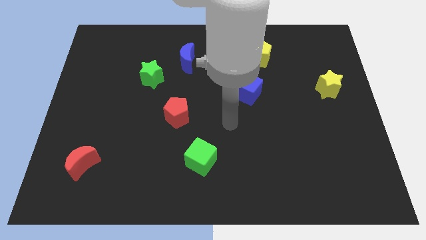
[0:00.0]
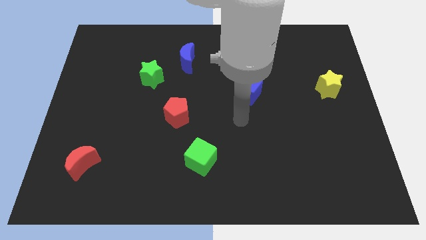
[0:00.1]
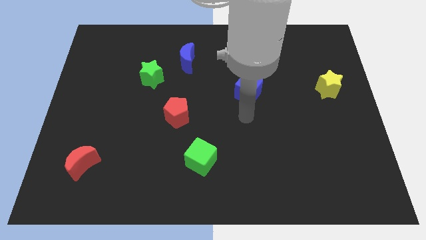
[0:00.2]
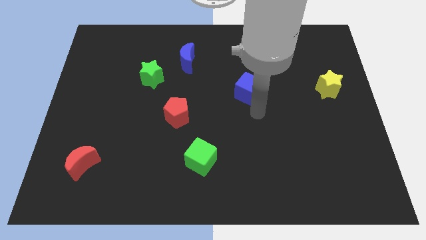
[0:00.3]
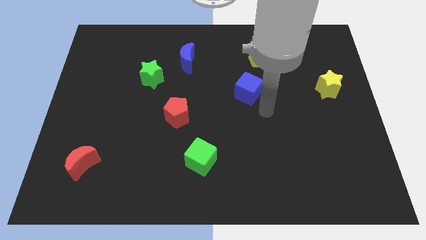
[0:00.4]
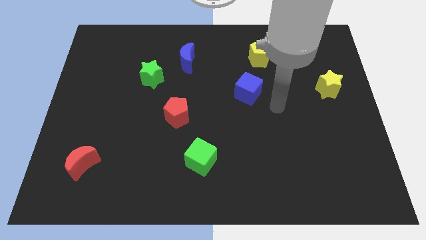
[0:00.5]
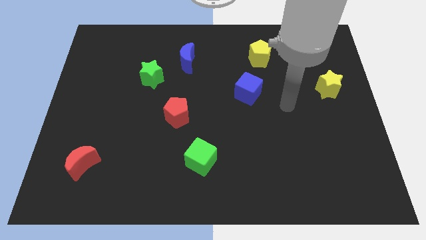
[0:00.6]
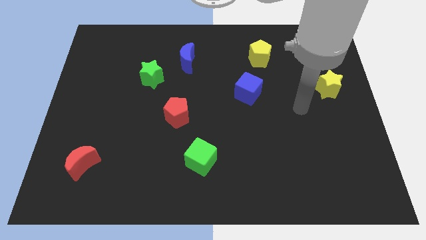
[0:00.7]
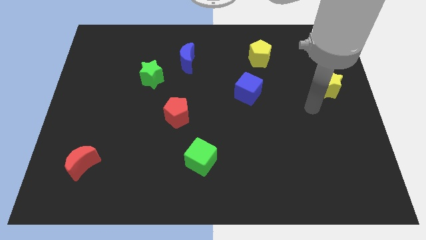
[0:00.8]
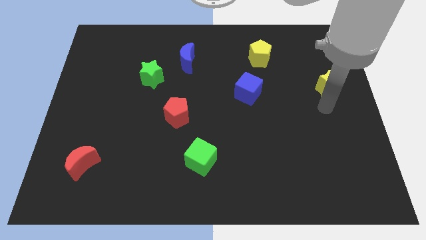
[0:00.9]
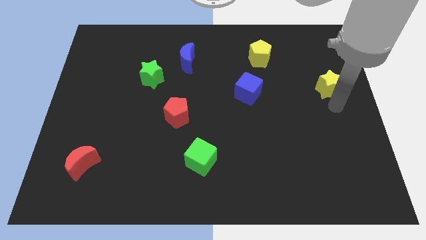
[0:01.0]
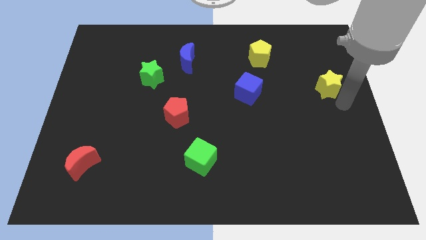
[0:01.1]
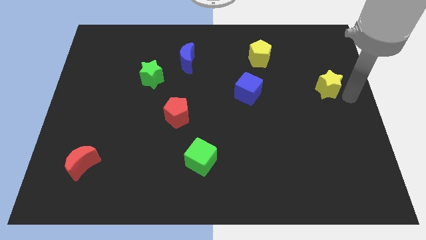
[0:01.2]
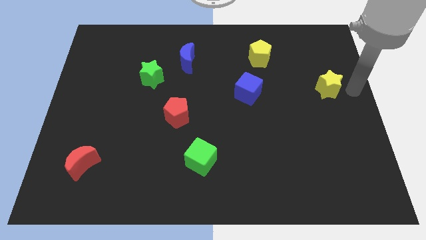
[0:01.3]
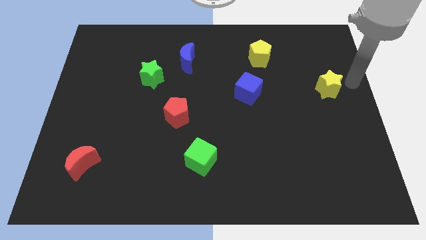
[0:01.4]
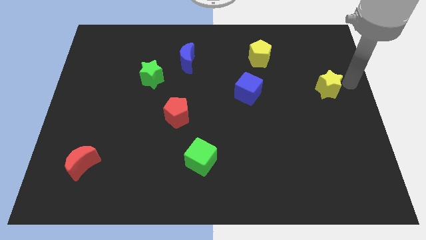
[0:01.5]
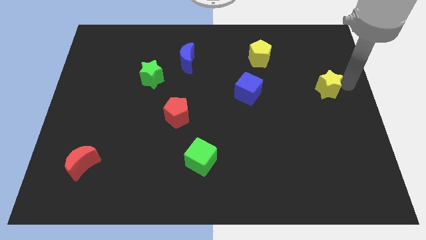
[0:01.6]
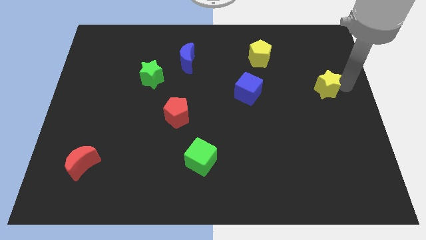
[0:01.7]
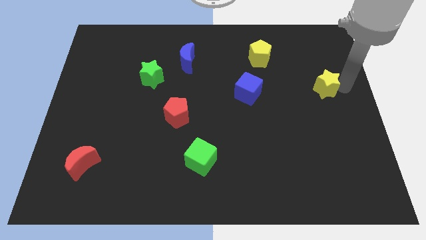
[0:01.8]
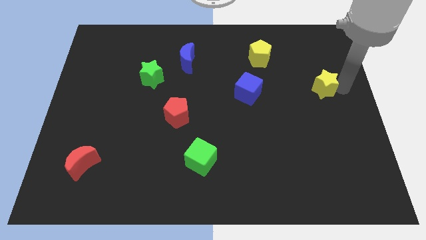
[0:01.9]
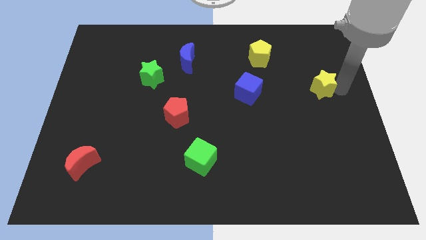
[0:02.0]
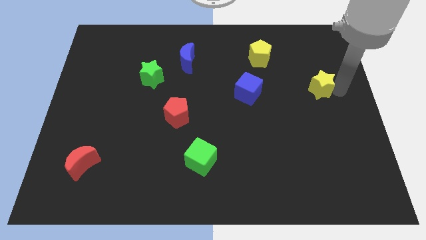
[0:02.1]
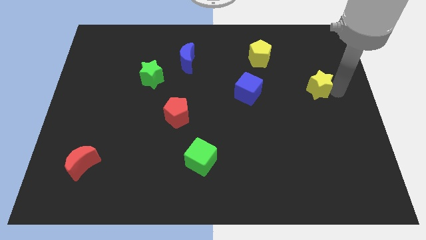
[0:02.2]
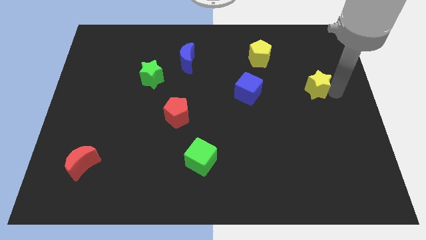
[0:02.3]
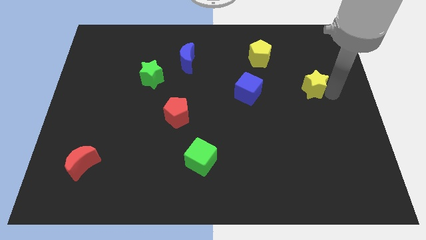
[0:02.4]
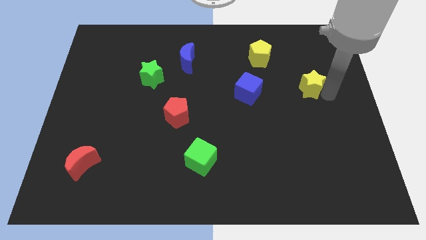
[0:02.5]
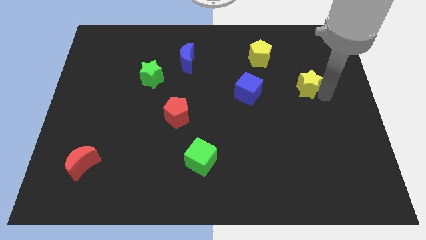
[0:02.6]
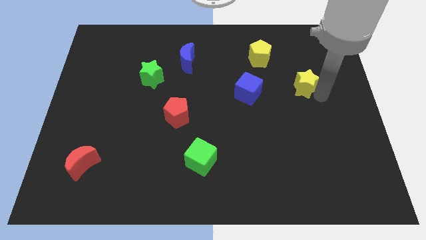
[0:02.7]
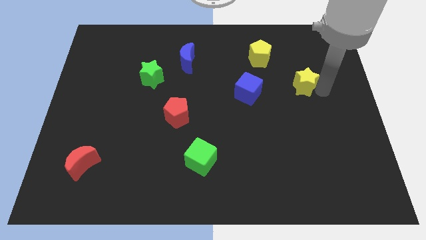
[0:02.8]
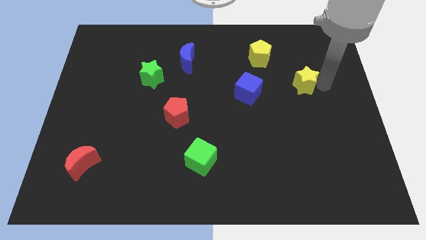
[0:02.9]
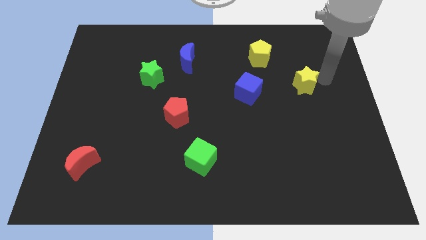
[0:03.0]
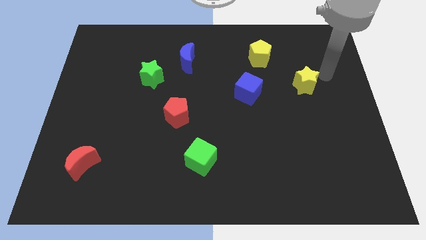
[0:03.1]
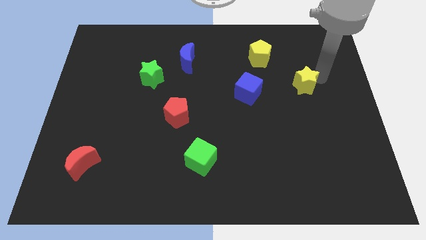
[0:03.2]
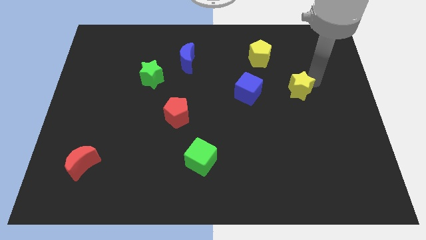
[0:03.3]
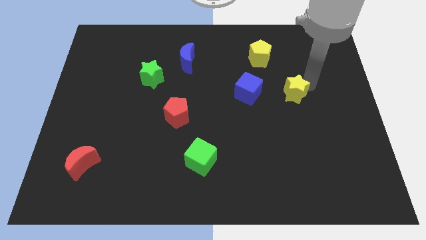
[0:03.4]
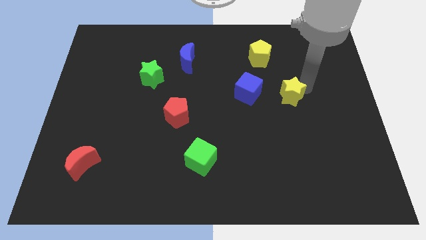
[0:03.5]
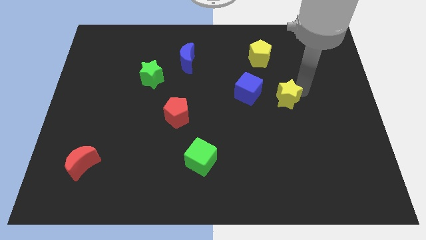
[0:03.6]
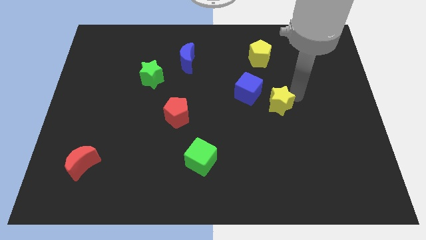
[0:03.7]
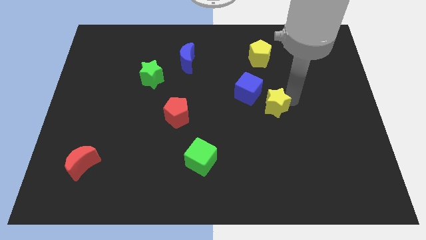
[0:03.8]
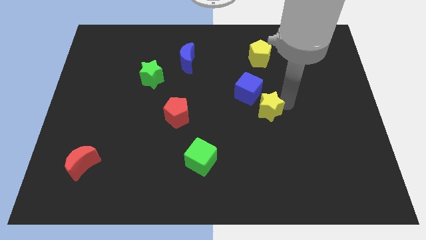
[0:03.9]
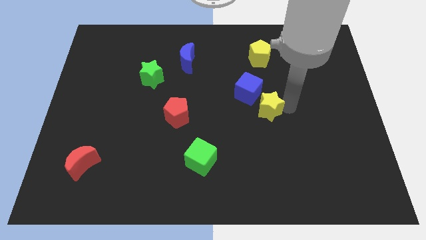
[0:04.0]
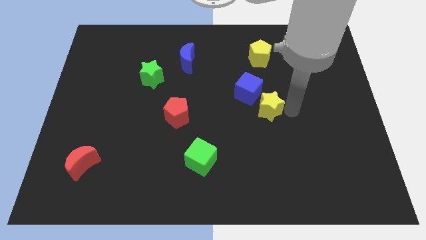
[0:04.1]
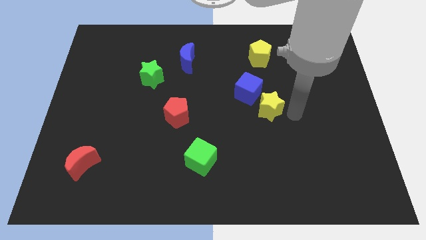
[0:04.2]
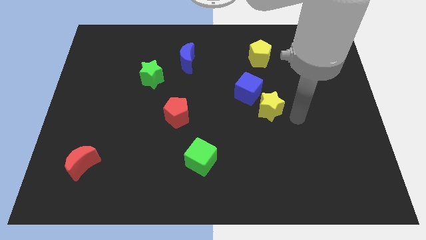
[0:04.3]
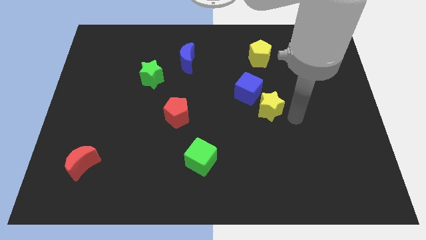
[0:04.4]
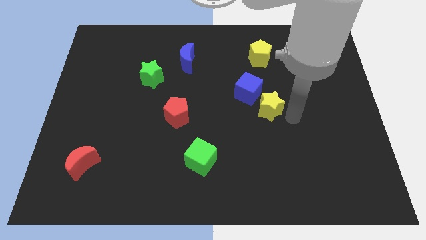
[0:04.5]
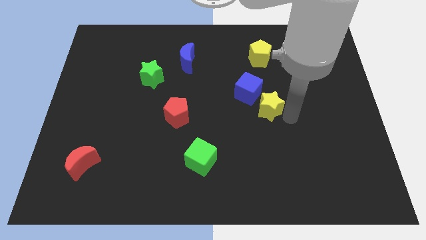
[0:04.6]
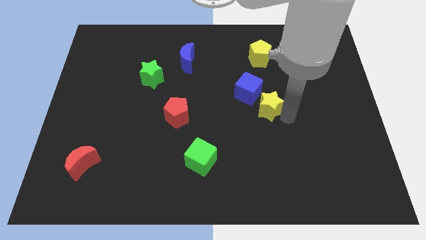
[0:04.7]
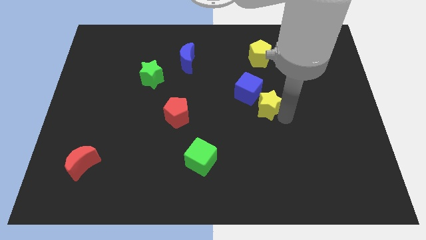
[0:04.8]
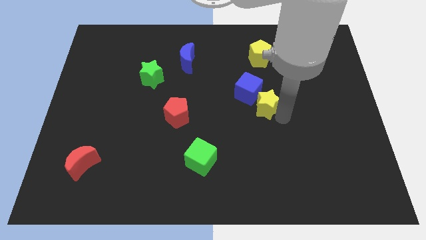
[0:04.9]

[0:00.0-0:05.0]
push the yellow star to the middle

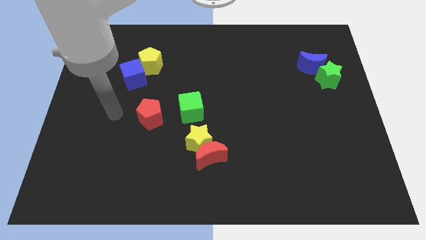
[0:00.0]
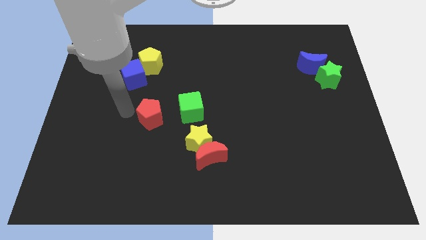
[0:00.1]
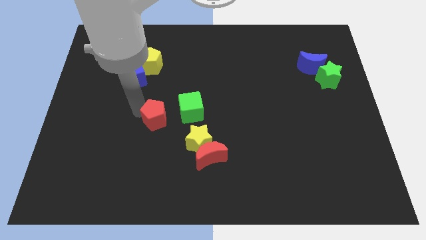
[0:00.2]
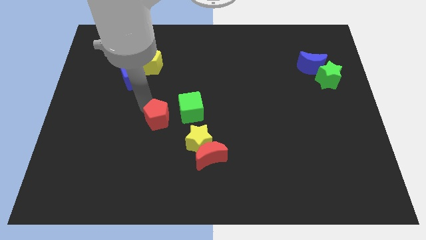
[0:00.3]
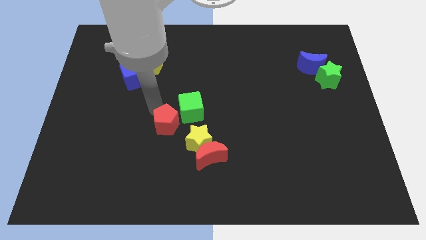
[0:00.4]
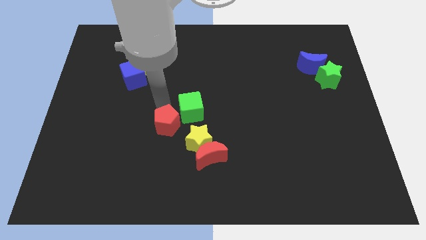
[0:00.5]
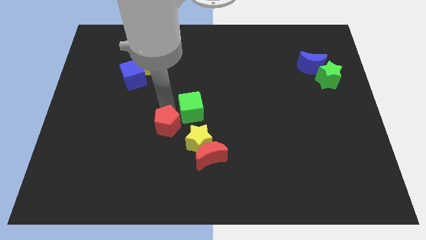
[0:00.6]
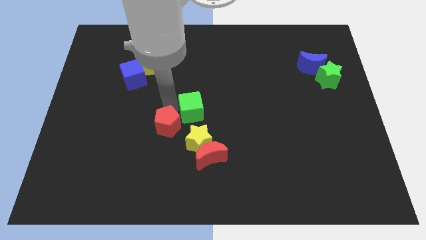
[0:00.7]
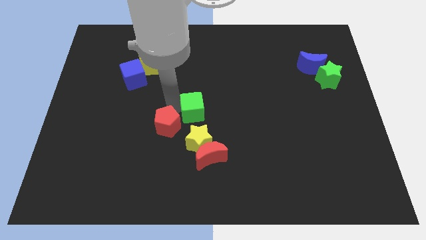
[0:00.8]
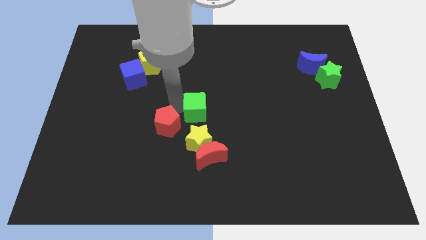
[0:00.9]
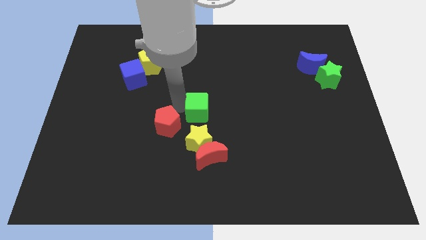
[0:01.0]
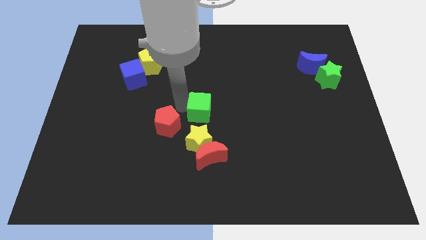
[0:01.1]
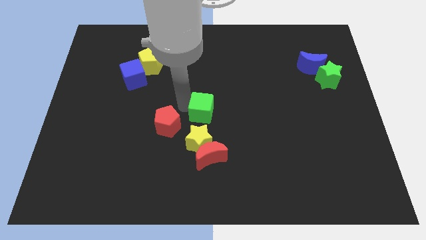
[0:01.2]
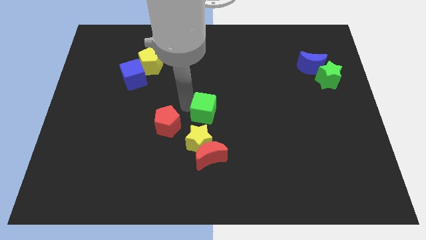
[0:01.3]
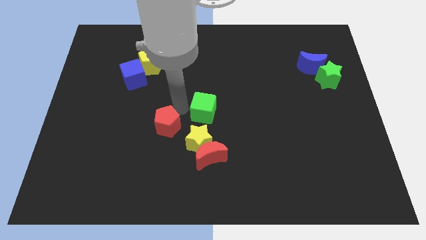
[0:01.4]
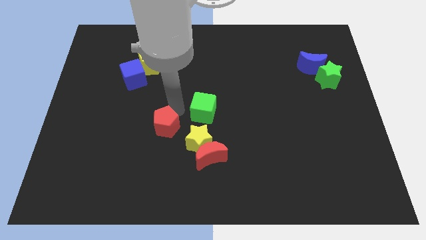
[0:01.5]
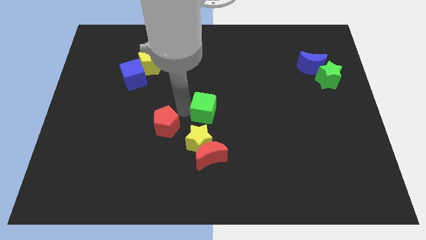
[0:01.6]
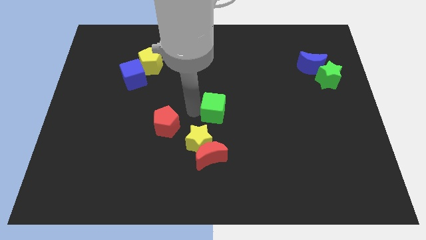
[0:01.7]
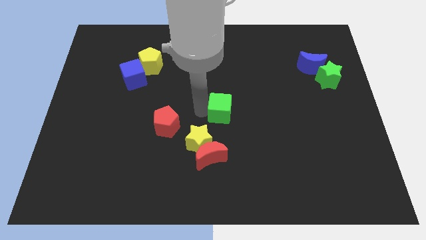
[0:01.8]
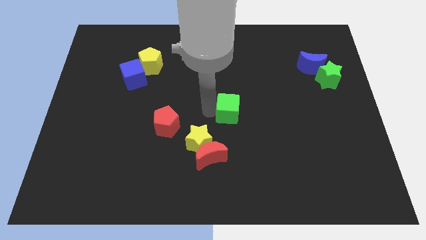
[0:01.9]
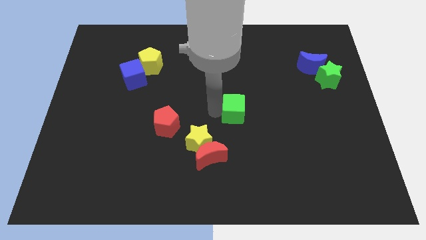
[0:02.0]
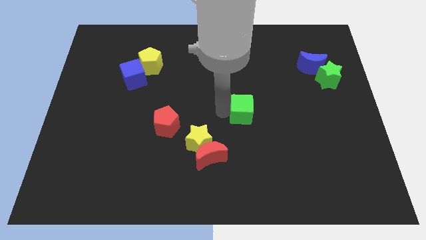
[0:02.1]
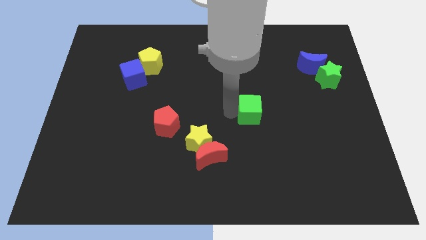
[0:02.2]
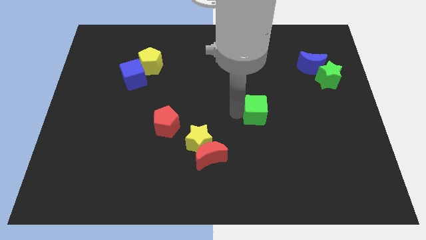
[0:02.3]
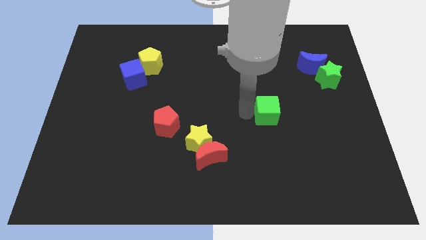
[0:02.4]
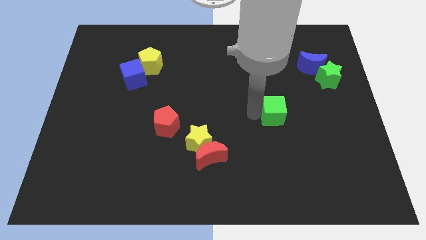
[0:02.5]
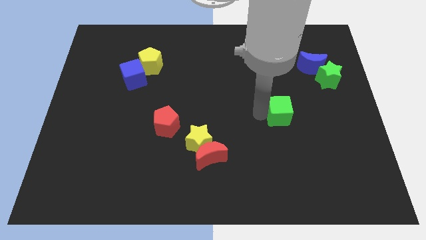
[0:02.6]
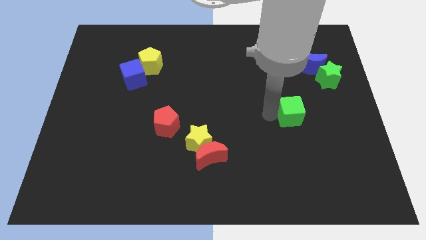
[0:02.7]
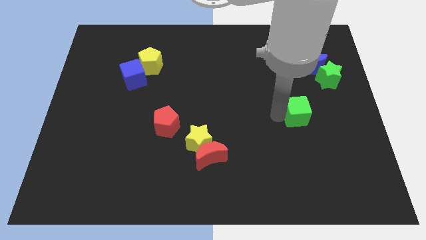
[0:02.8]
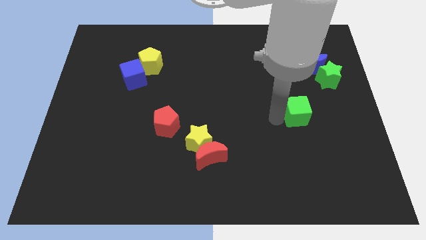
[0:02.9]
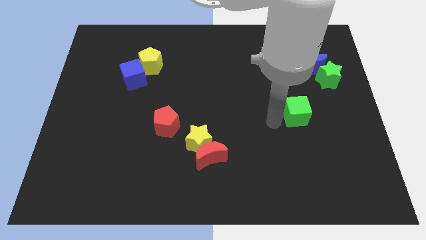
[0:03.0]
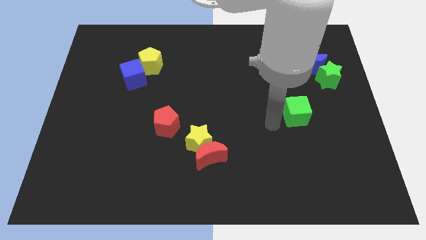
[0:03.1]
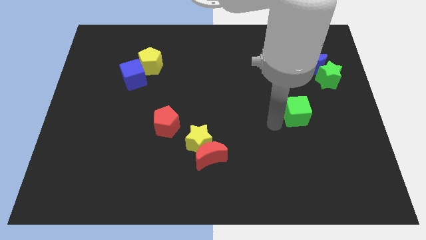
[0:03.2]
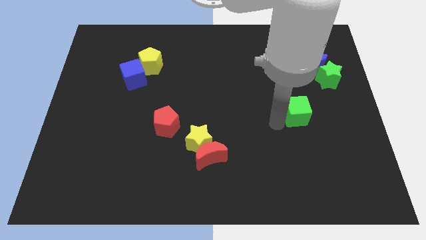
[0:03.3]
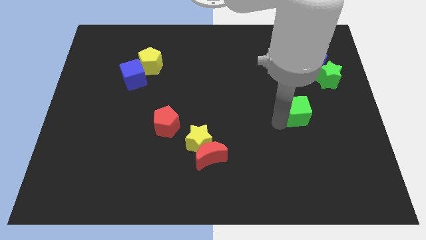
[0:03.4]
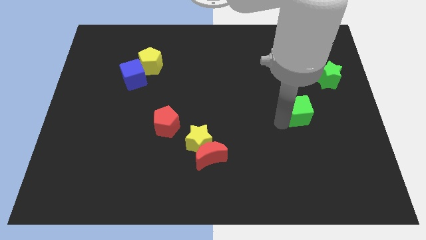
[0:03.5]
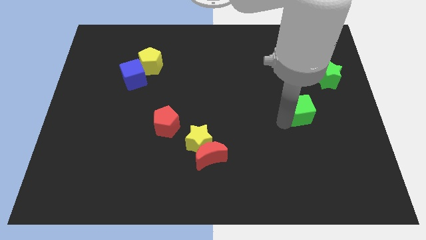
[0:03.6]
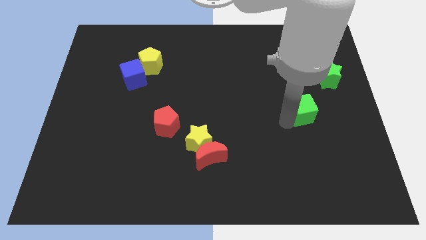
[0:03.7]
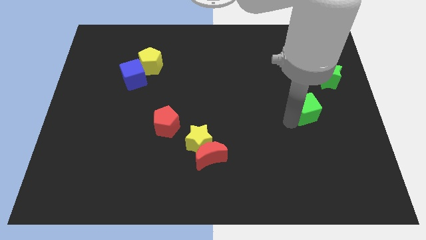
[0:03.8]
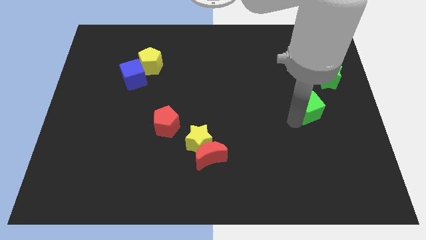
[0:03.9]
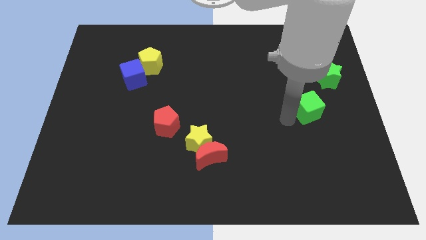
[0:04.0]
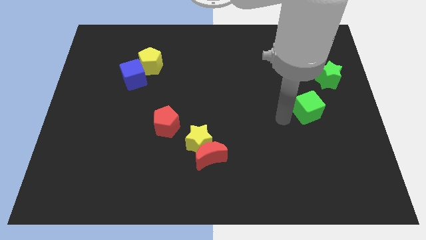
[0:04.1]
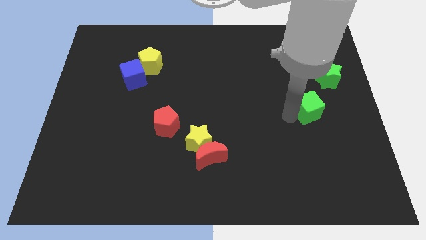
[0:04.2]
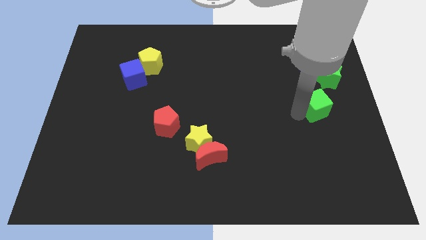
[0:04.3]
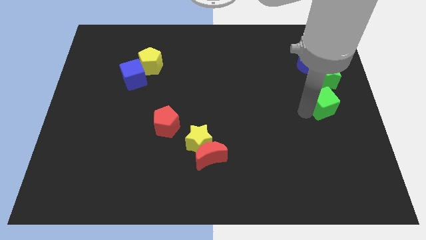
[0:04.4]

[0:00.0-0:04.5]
put the green cube to the right side of the board
